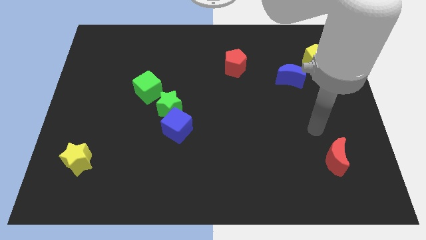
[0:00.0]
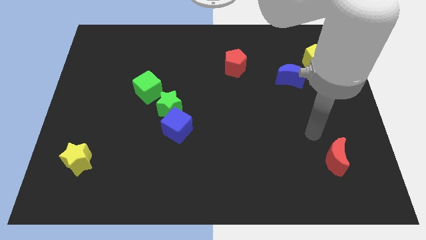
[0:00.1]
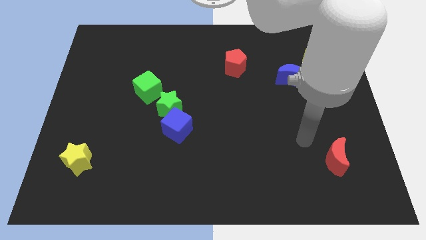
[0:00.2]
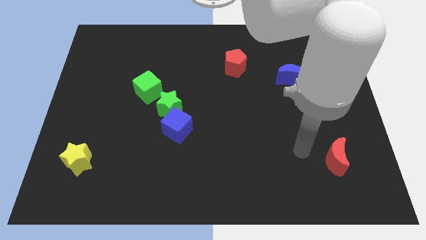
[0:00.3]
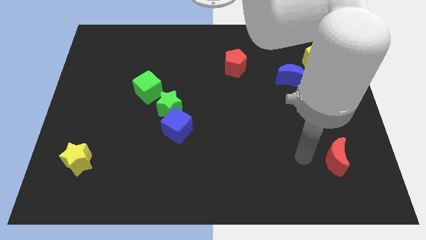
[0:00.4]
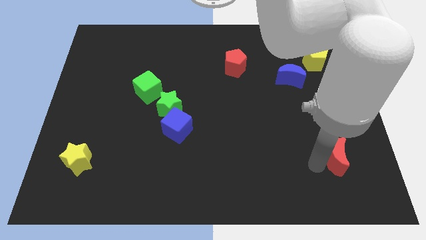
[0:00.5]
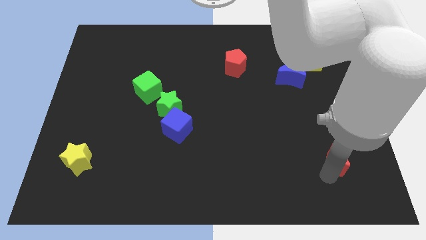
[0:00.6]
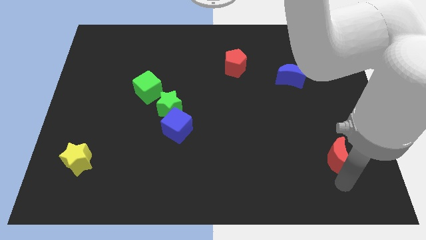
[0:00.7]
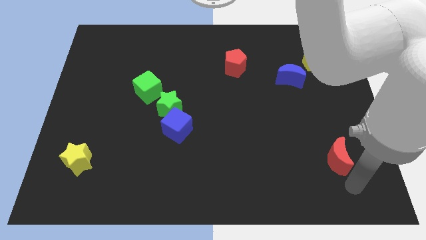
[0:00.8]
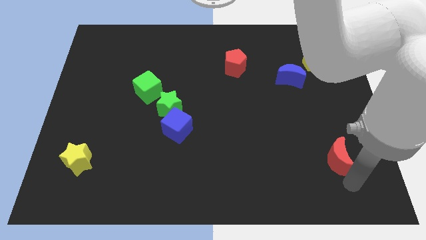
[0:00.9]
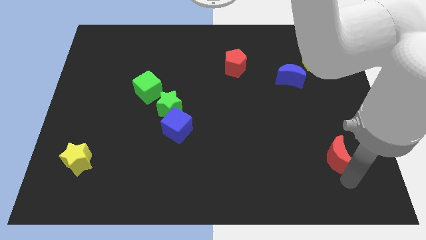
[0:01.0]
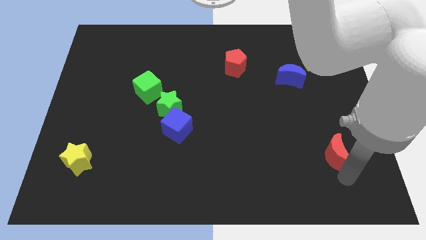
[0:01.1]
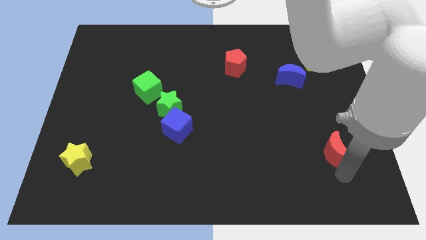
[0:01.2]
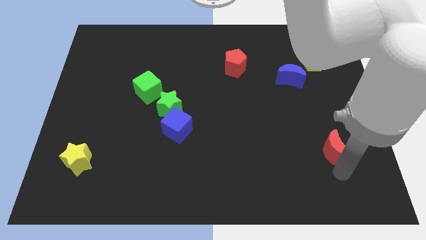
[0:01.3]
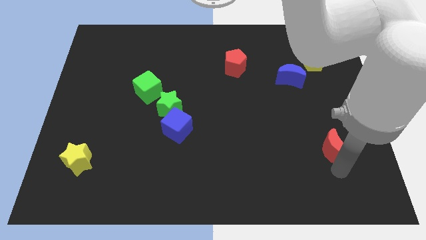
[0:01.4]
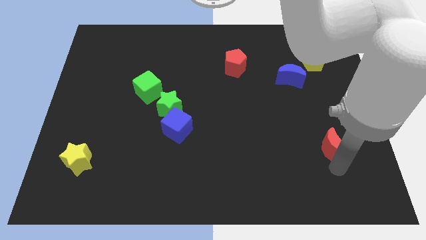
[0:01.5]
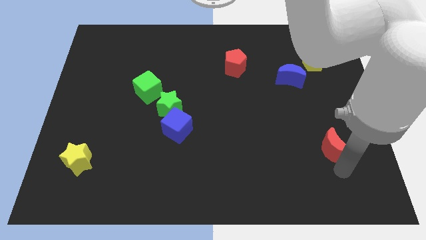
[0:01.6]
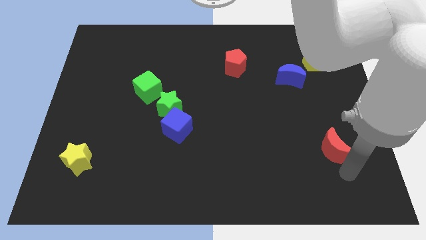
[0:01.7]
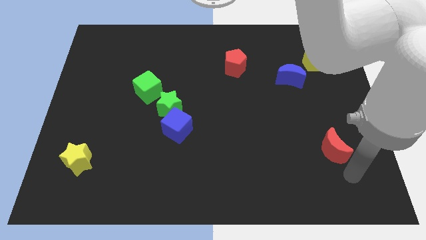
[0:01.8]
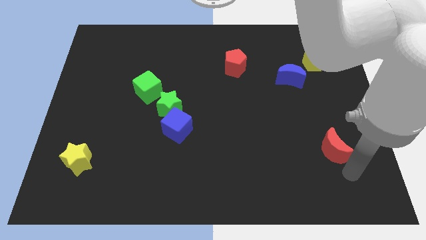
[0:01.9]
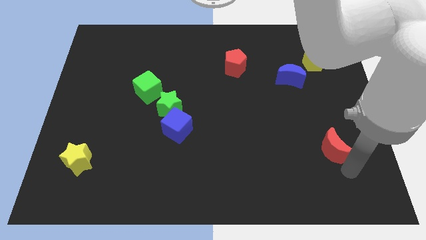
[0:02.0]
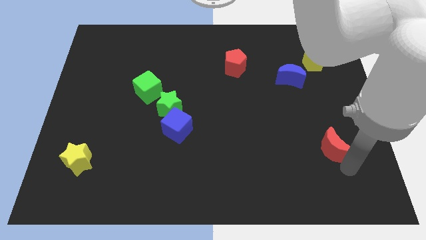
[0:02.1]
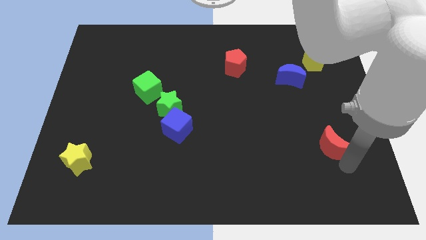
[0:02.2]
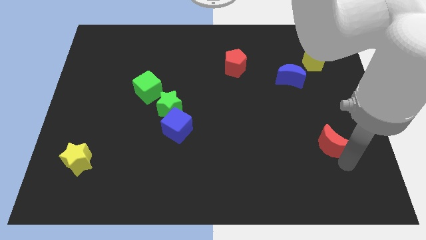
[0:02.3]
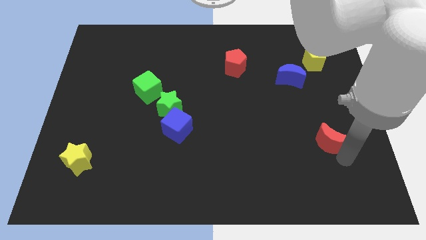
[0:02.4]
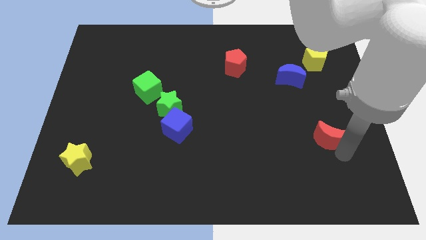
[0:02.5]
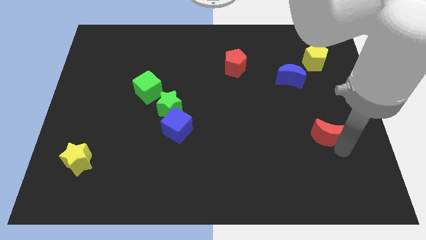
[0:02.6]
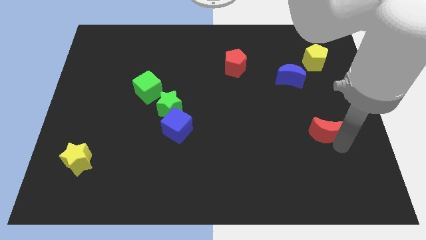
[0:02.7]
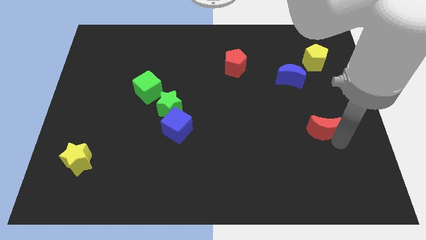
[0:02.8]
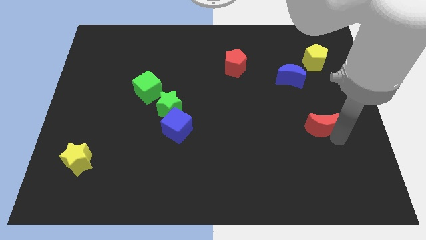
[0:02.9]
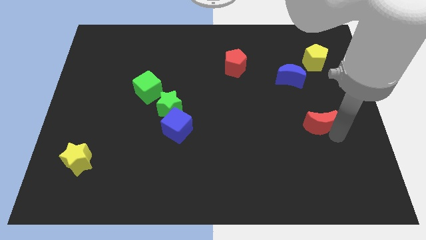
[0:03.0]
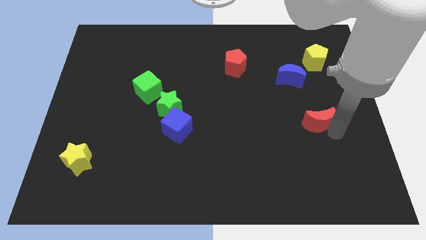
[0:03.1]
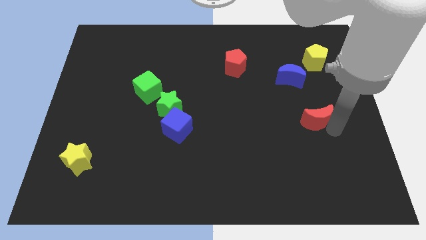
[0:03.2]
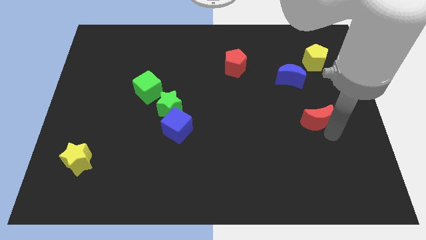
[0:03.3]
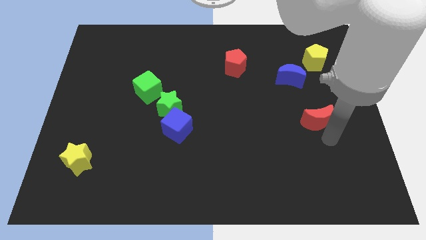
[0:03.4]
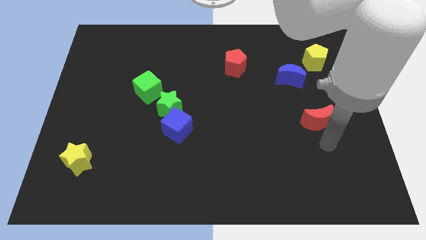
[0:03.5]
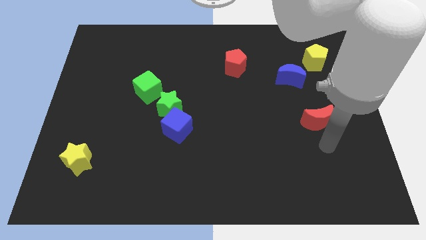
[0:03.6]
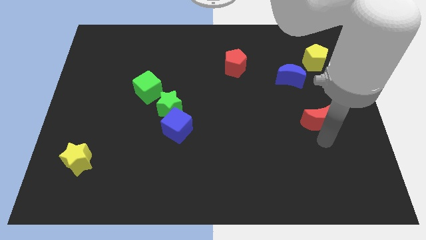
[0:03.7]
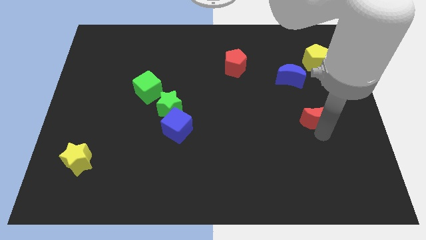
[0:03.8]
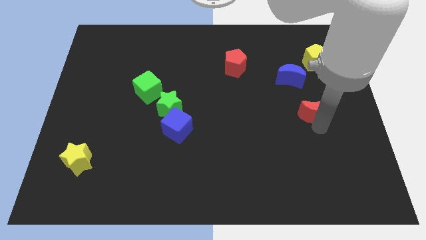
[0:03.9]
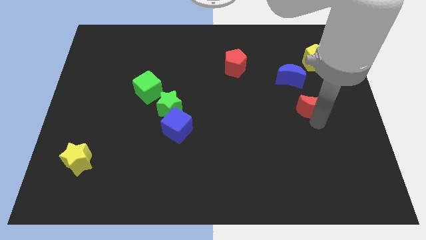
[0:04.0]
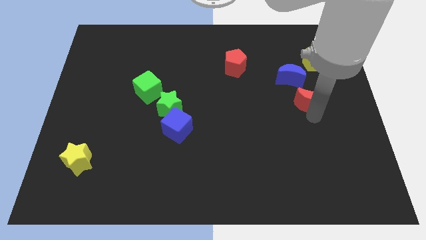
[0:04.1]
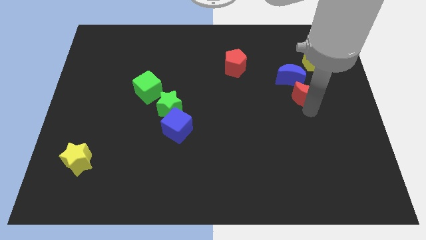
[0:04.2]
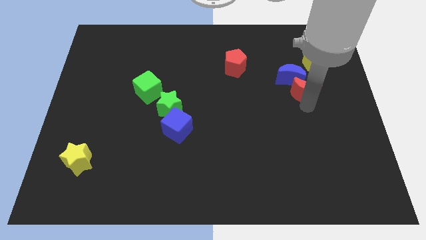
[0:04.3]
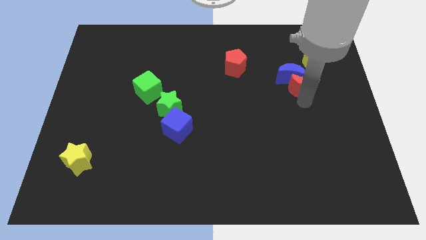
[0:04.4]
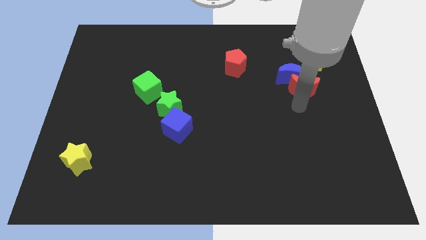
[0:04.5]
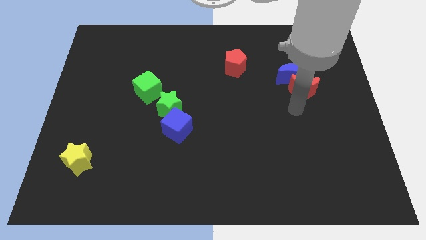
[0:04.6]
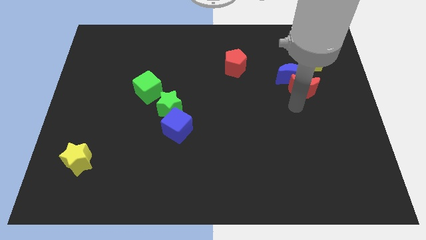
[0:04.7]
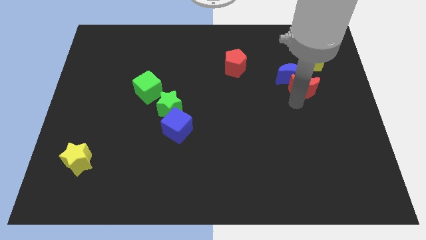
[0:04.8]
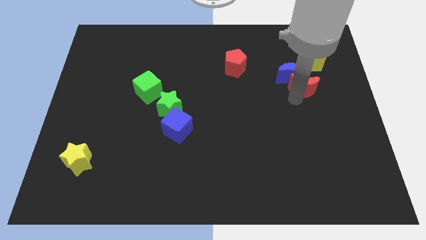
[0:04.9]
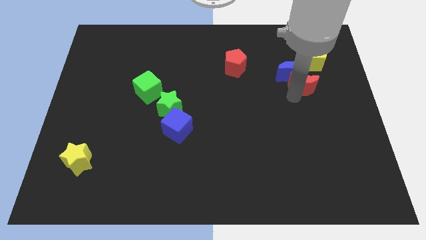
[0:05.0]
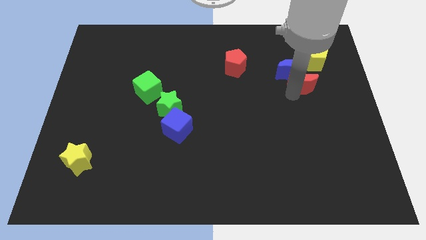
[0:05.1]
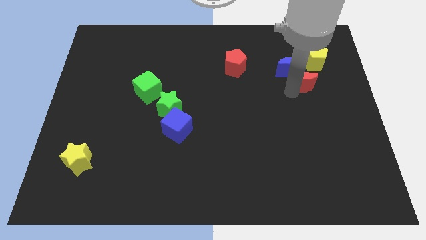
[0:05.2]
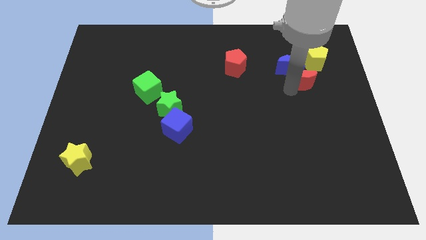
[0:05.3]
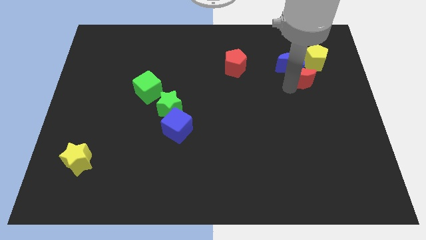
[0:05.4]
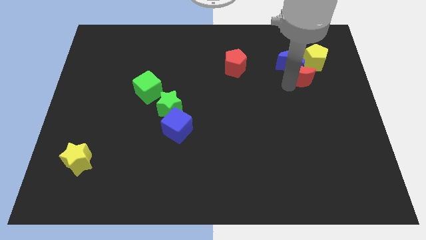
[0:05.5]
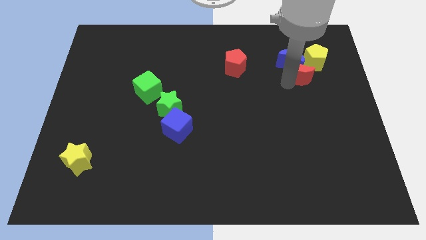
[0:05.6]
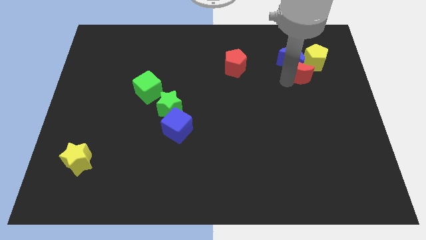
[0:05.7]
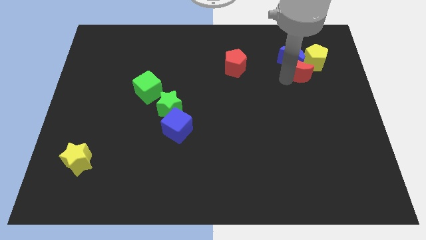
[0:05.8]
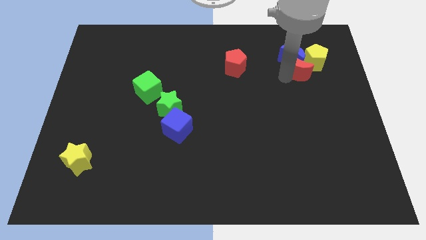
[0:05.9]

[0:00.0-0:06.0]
slide the red moon close to the yellow pentagon

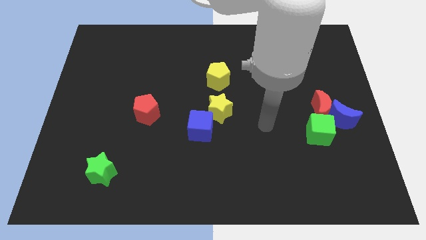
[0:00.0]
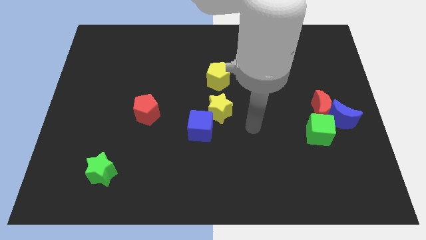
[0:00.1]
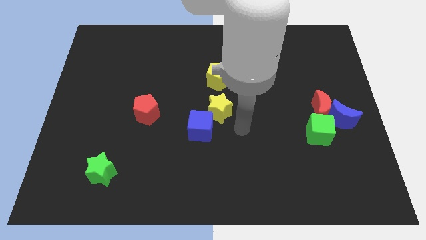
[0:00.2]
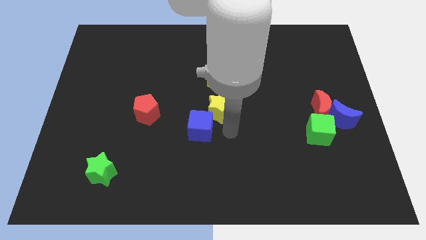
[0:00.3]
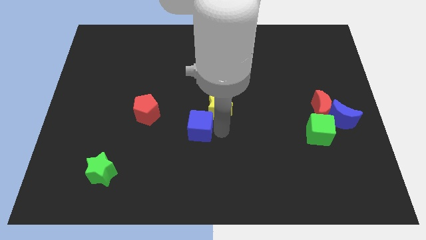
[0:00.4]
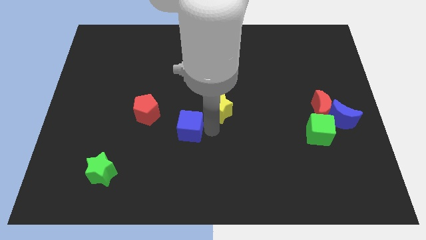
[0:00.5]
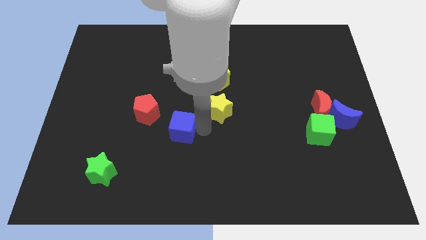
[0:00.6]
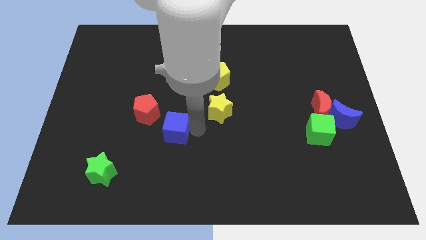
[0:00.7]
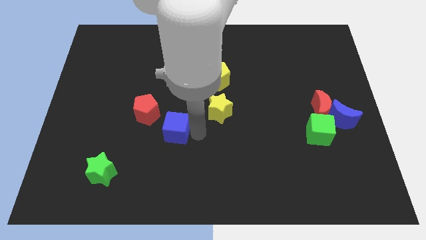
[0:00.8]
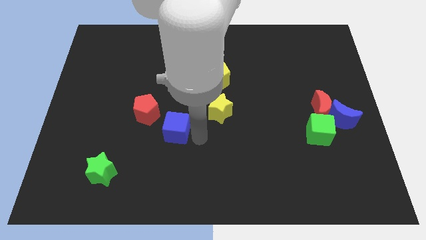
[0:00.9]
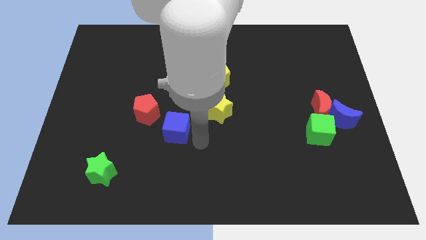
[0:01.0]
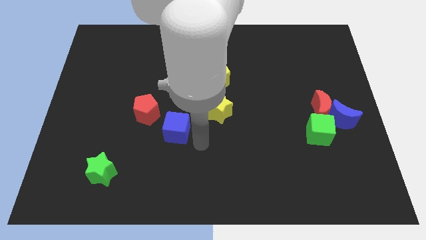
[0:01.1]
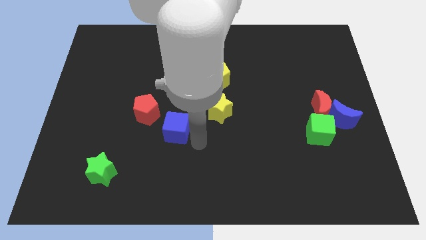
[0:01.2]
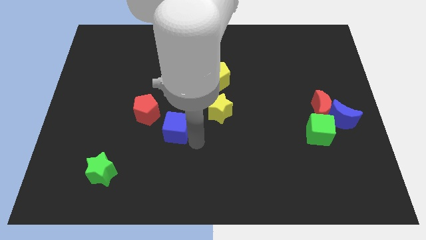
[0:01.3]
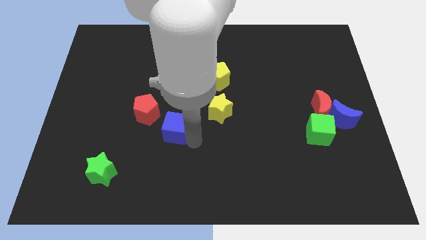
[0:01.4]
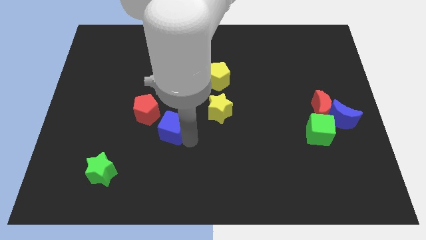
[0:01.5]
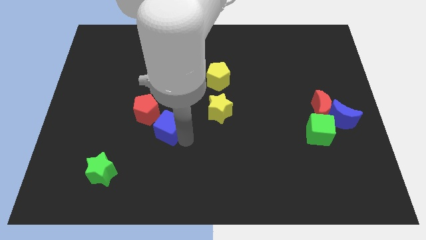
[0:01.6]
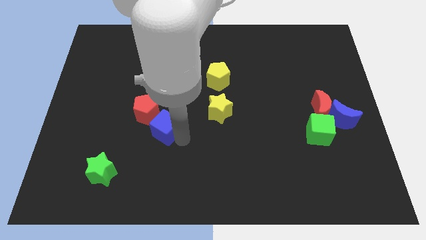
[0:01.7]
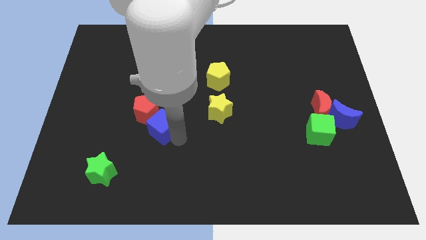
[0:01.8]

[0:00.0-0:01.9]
put the blue cube to the red pentagon

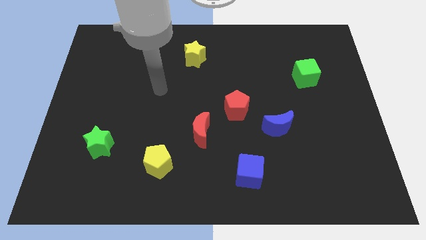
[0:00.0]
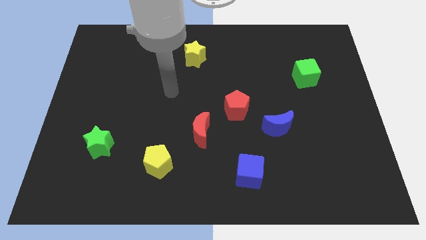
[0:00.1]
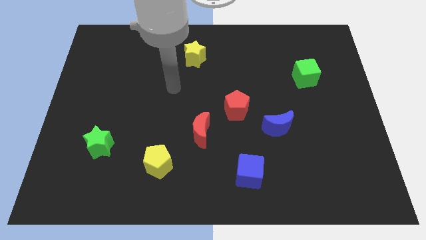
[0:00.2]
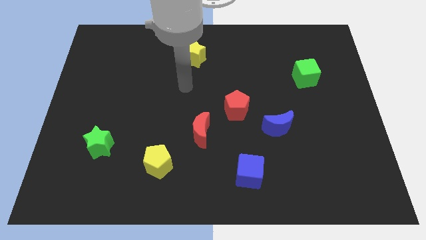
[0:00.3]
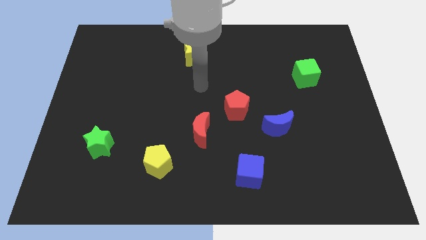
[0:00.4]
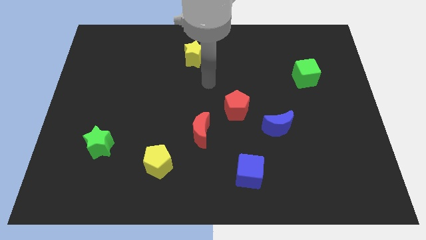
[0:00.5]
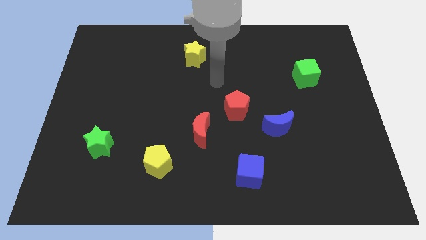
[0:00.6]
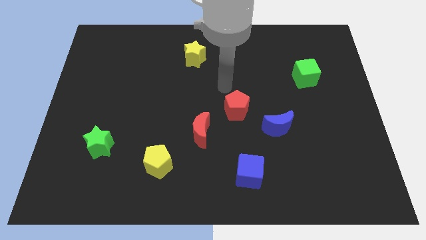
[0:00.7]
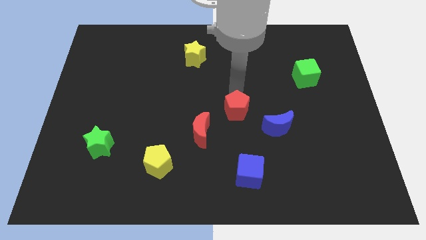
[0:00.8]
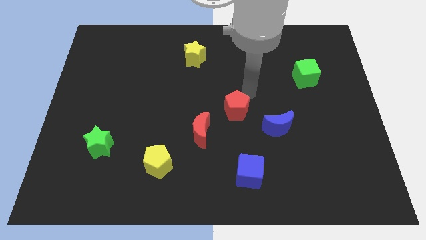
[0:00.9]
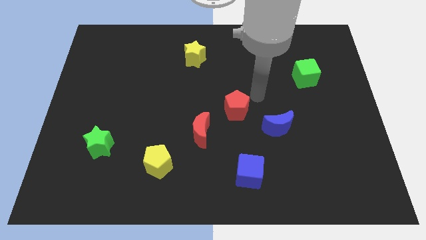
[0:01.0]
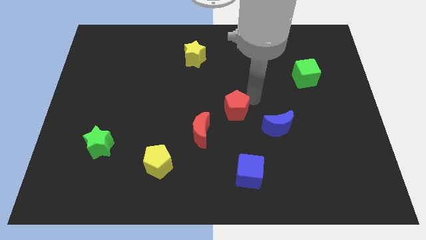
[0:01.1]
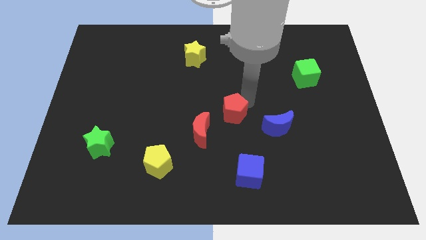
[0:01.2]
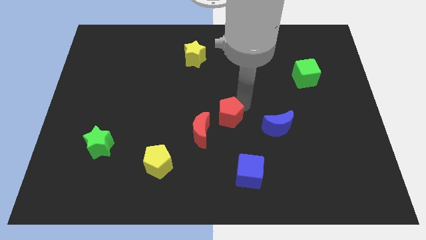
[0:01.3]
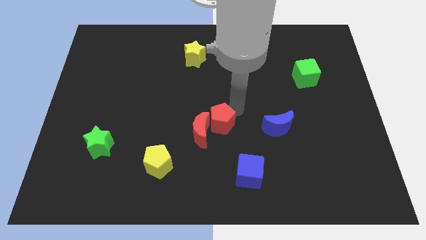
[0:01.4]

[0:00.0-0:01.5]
move the red pentagon to the red moon
